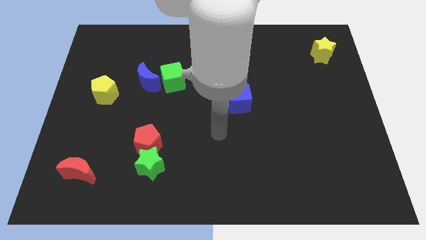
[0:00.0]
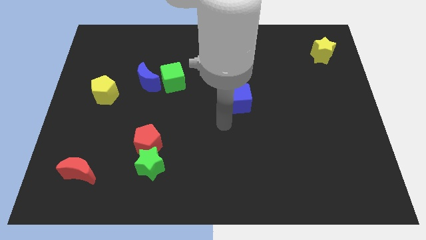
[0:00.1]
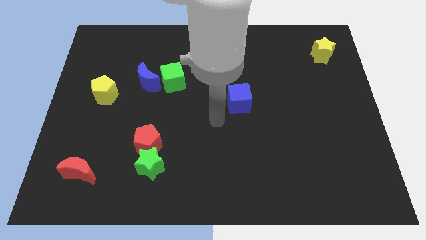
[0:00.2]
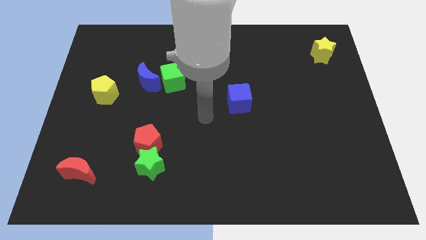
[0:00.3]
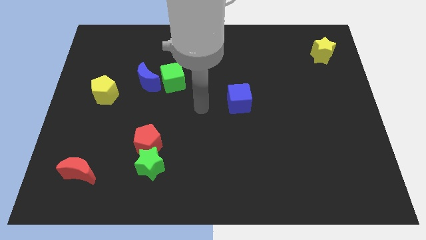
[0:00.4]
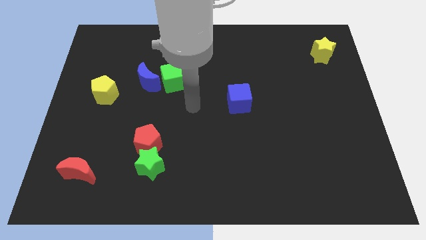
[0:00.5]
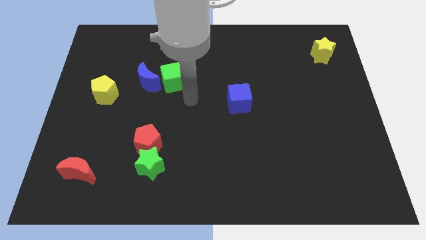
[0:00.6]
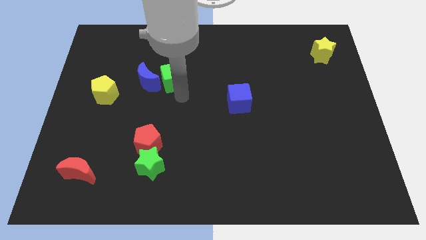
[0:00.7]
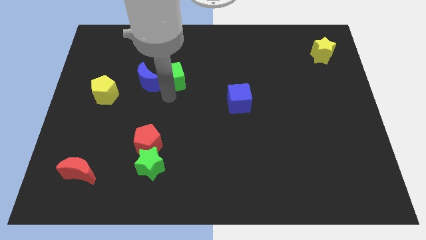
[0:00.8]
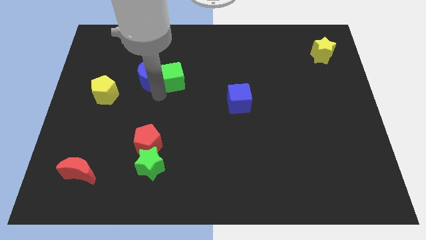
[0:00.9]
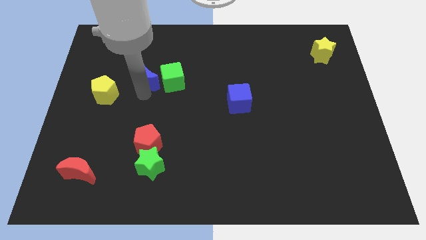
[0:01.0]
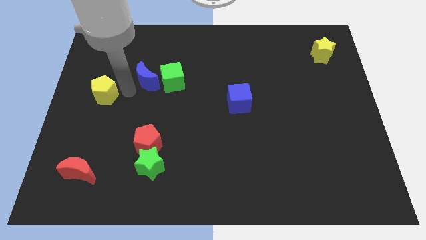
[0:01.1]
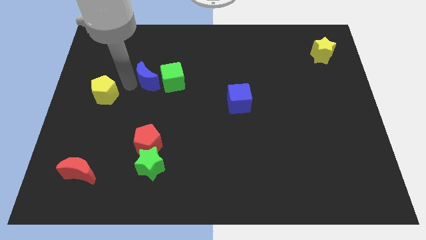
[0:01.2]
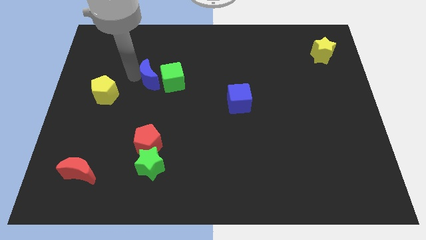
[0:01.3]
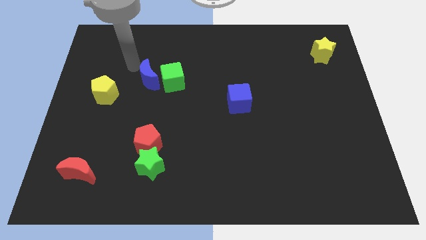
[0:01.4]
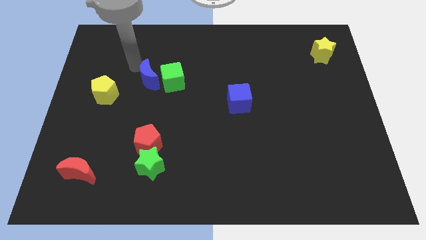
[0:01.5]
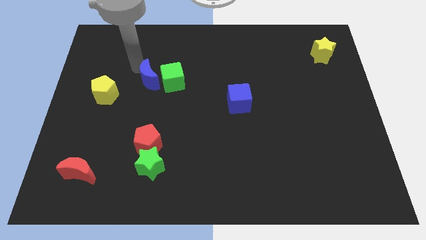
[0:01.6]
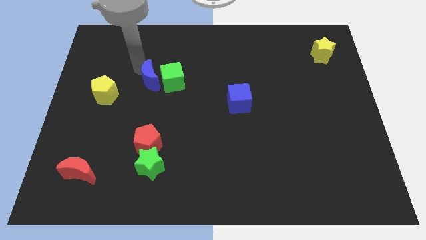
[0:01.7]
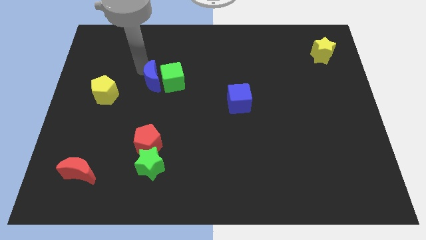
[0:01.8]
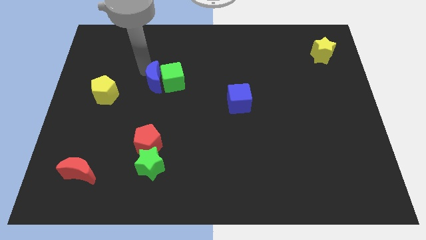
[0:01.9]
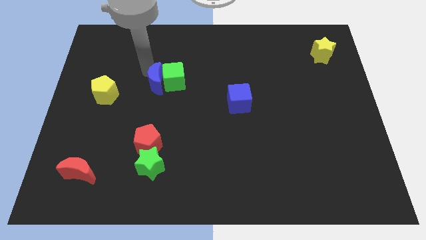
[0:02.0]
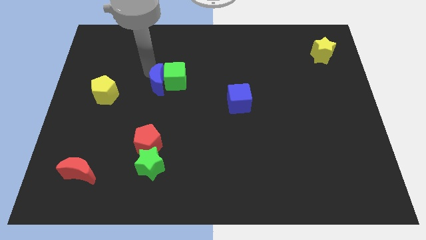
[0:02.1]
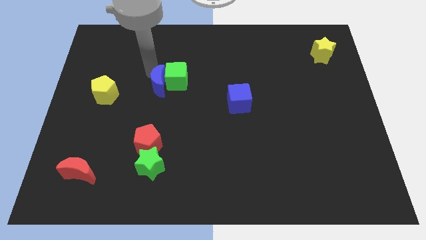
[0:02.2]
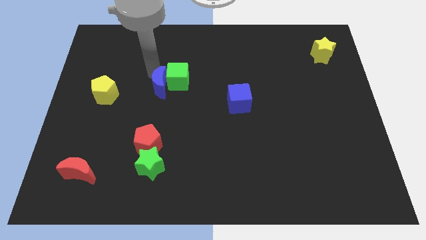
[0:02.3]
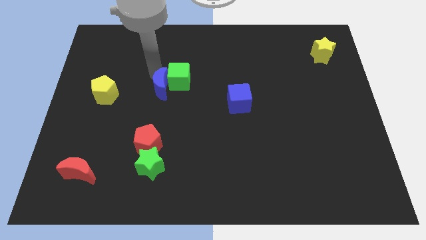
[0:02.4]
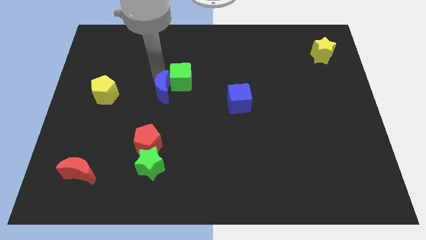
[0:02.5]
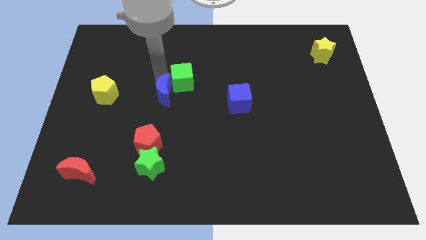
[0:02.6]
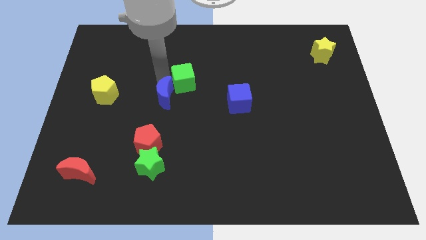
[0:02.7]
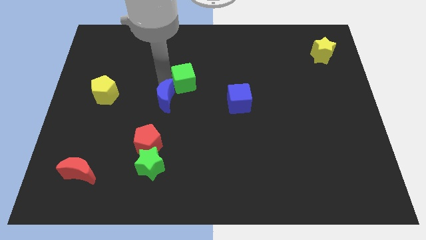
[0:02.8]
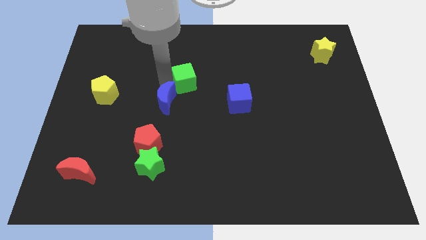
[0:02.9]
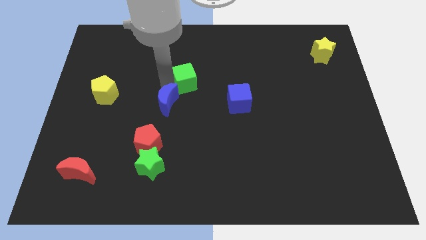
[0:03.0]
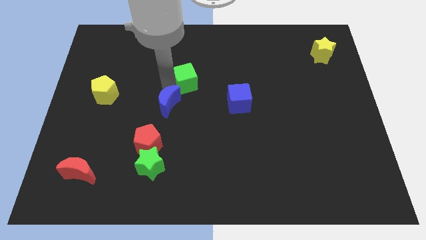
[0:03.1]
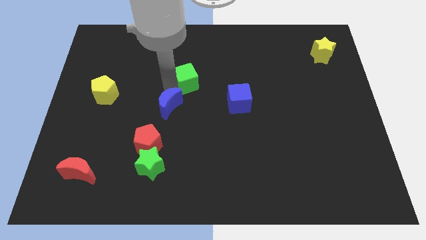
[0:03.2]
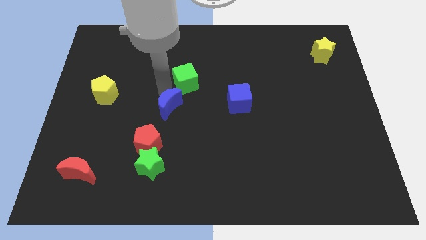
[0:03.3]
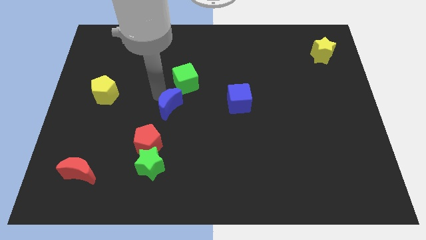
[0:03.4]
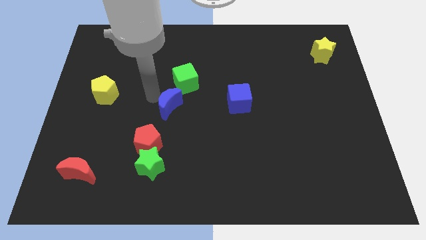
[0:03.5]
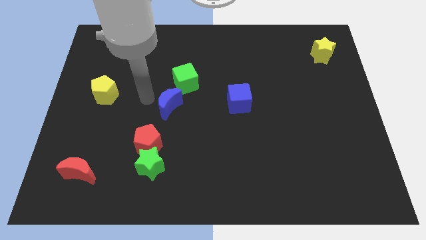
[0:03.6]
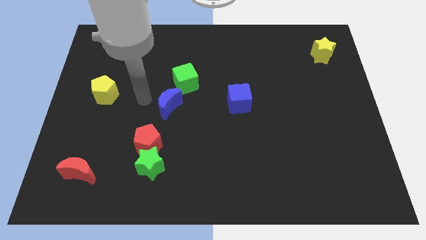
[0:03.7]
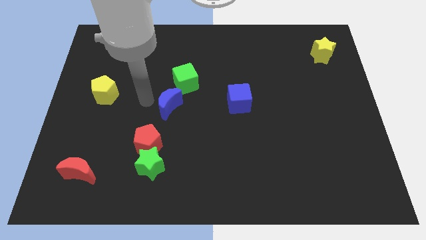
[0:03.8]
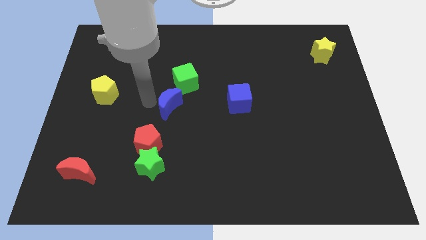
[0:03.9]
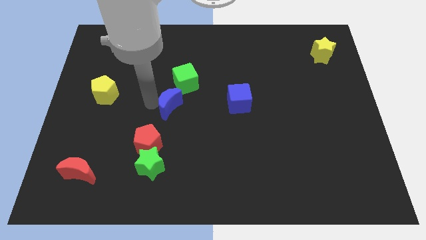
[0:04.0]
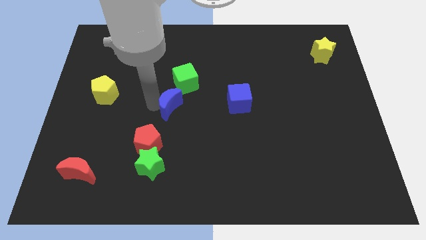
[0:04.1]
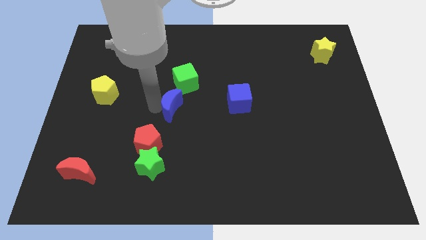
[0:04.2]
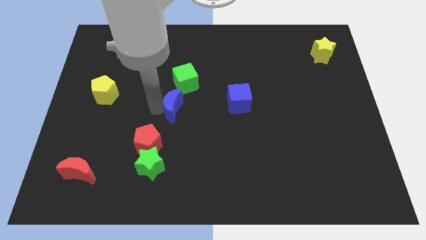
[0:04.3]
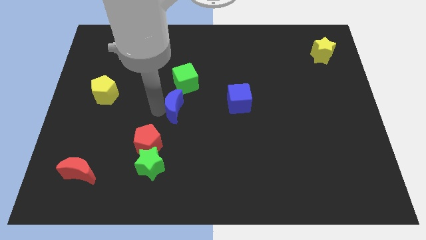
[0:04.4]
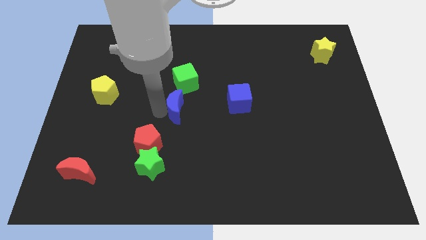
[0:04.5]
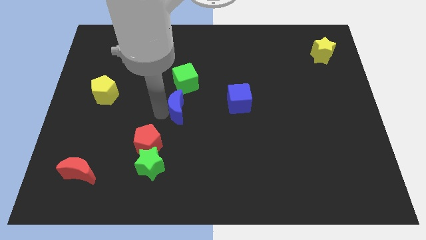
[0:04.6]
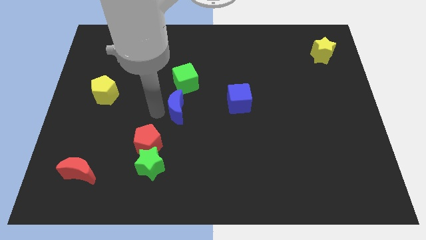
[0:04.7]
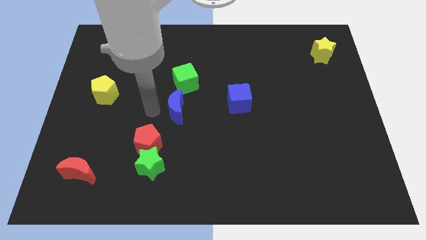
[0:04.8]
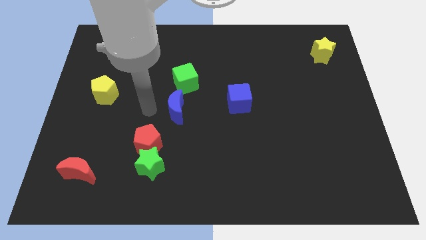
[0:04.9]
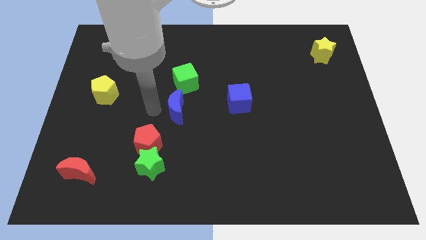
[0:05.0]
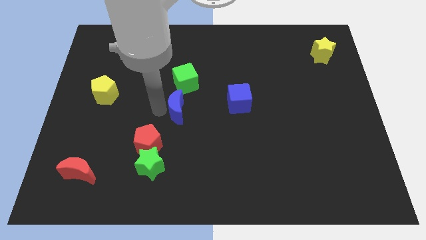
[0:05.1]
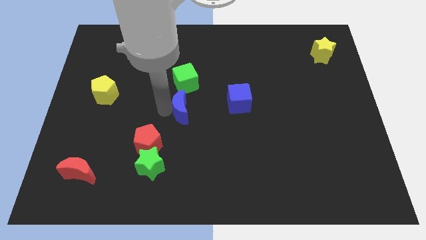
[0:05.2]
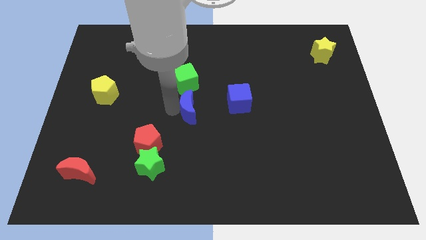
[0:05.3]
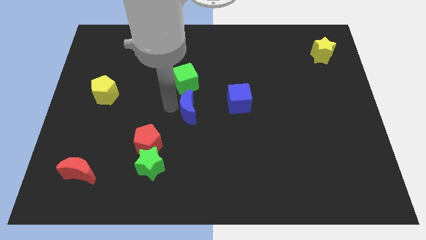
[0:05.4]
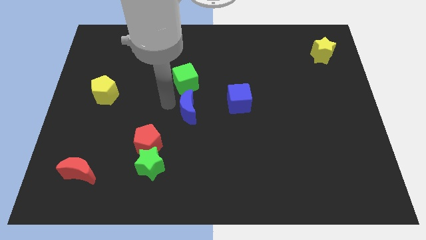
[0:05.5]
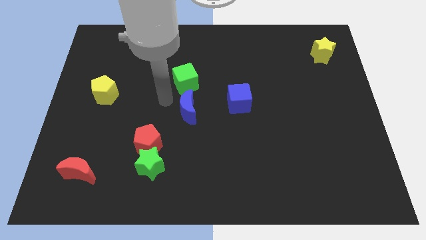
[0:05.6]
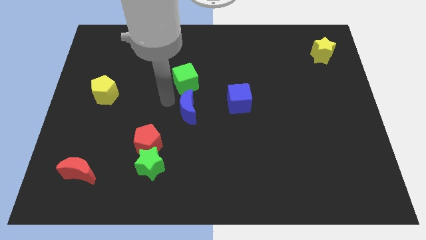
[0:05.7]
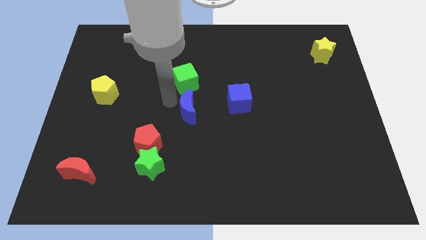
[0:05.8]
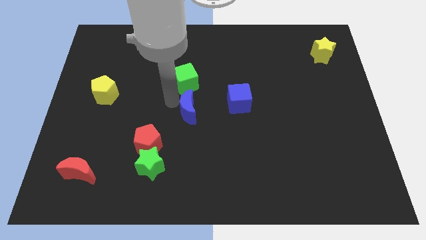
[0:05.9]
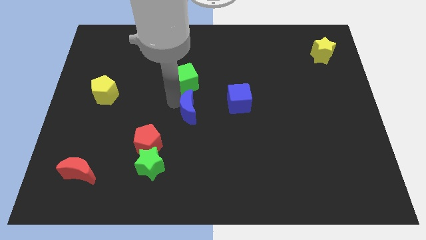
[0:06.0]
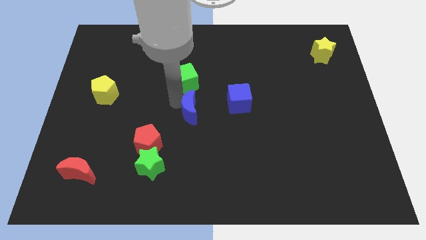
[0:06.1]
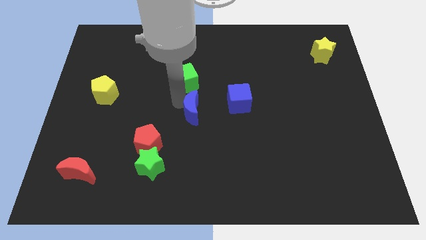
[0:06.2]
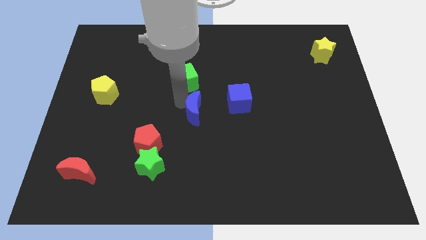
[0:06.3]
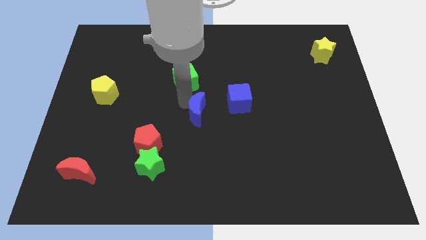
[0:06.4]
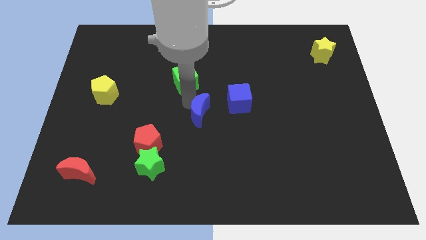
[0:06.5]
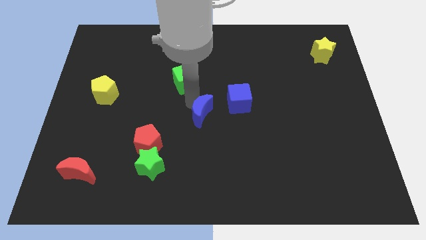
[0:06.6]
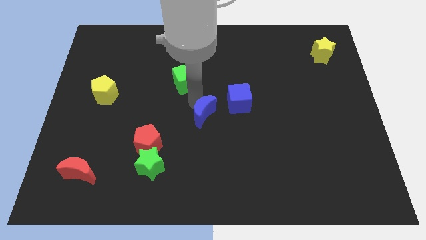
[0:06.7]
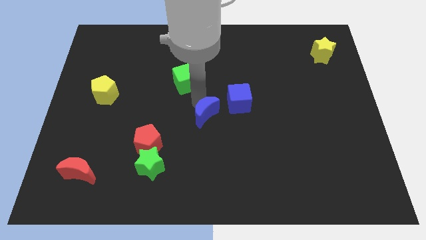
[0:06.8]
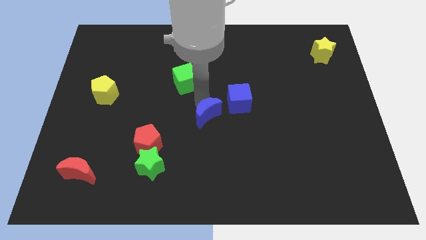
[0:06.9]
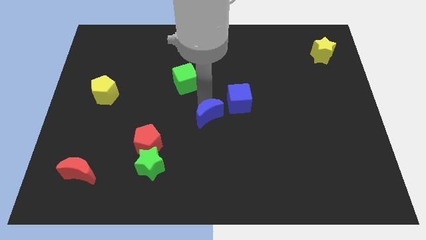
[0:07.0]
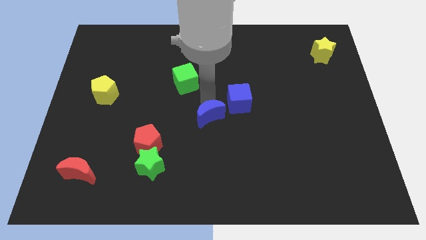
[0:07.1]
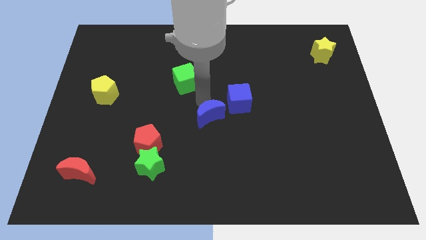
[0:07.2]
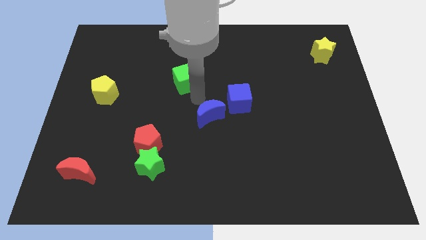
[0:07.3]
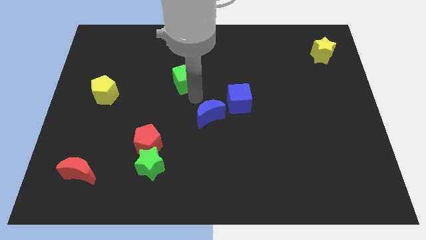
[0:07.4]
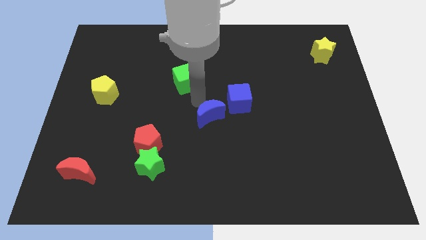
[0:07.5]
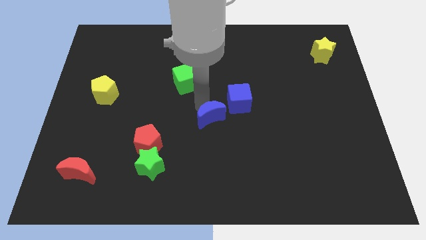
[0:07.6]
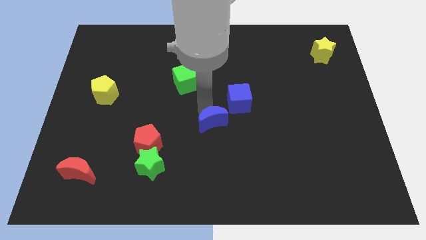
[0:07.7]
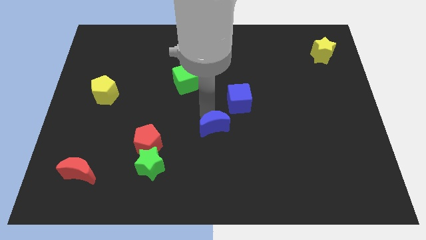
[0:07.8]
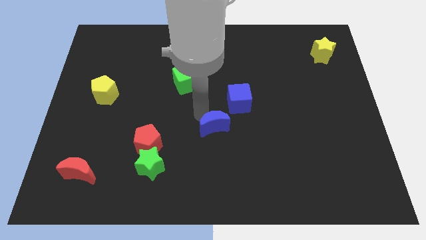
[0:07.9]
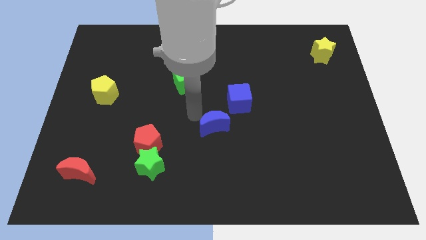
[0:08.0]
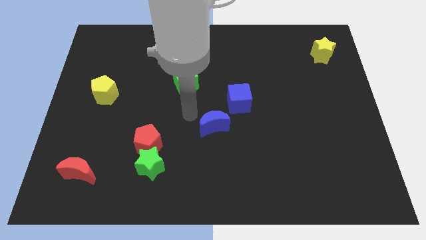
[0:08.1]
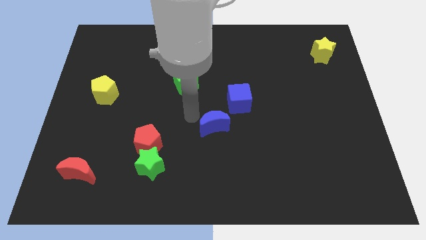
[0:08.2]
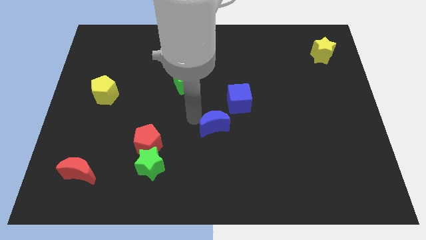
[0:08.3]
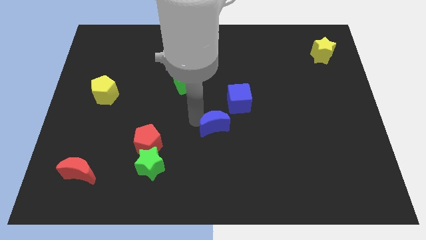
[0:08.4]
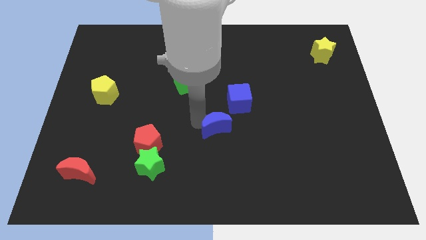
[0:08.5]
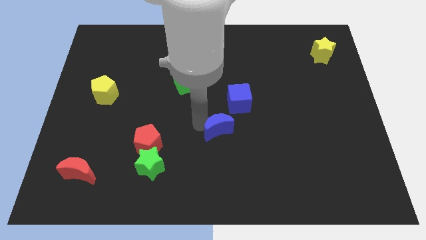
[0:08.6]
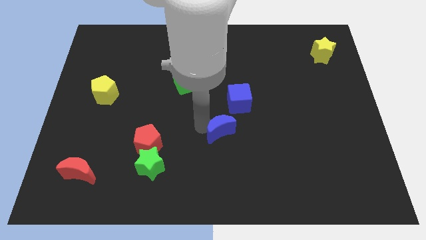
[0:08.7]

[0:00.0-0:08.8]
push the blue moon below the blue cube
